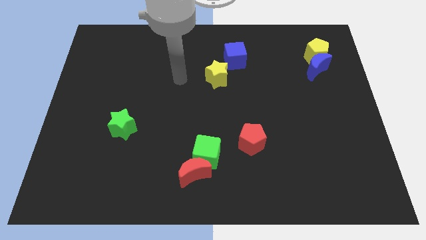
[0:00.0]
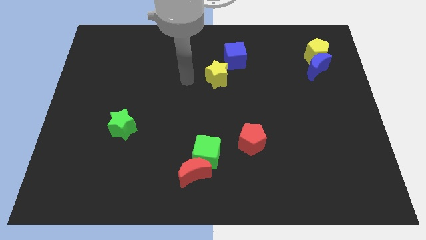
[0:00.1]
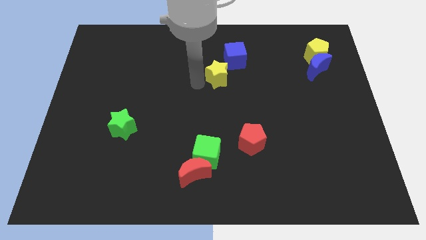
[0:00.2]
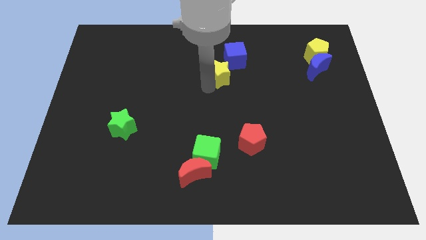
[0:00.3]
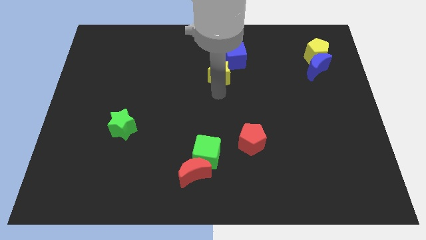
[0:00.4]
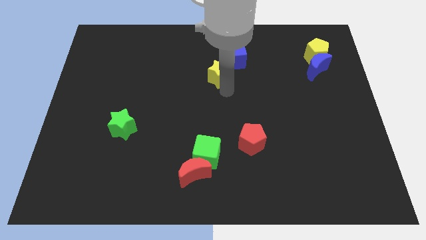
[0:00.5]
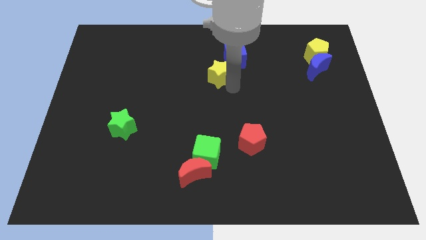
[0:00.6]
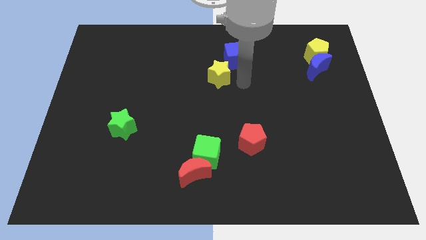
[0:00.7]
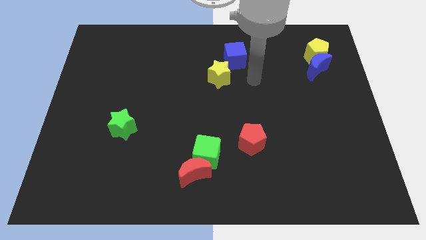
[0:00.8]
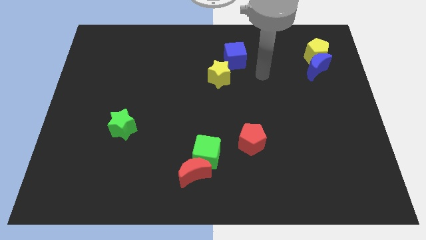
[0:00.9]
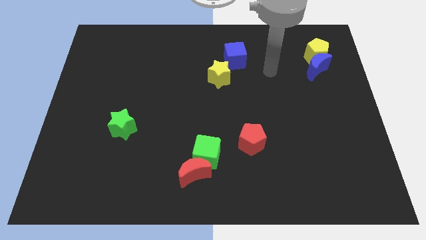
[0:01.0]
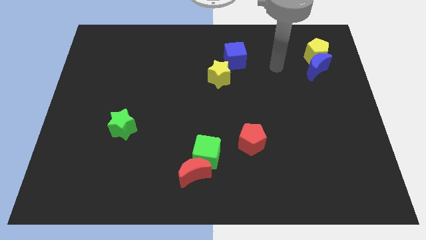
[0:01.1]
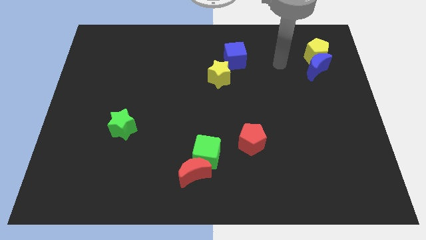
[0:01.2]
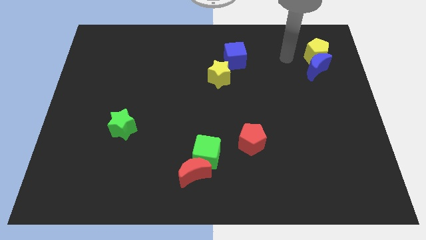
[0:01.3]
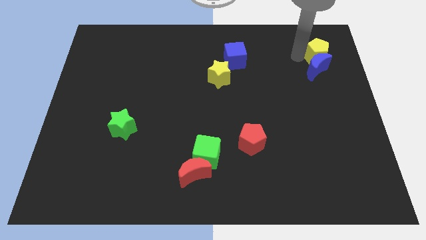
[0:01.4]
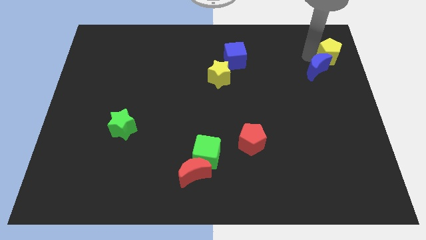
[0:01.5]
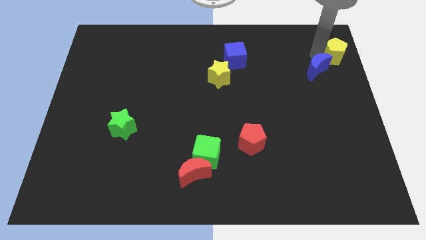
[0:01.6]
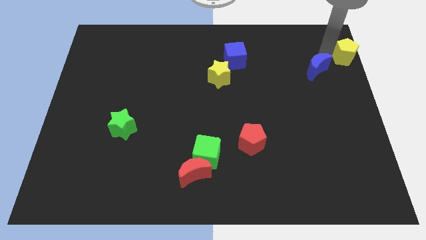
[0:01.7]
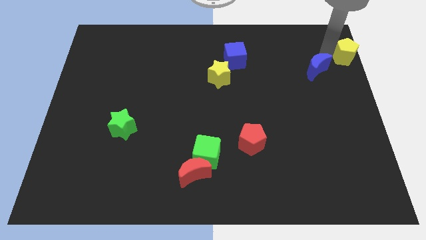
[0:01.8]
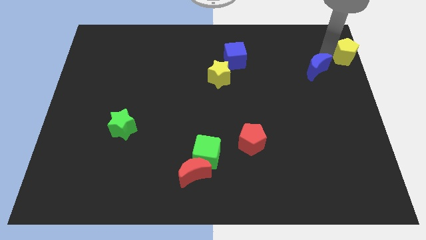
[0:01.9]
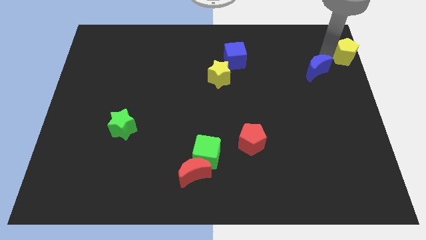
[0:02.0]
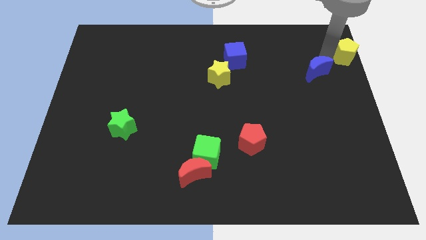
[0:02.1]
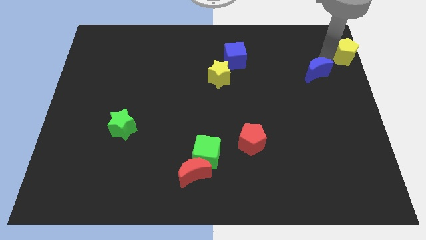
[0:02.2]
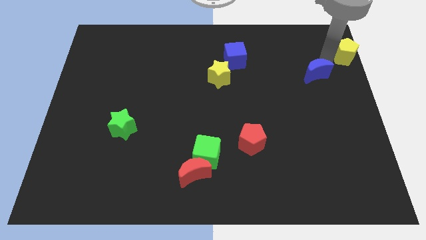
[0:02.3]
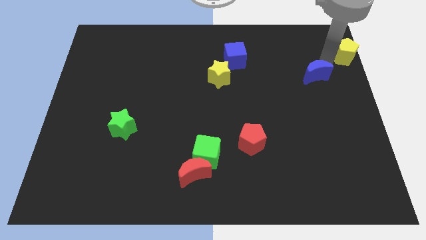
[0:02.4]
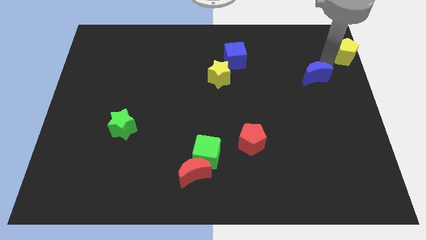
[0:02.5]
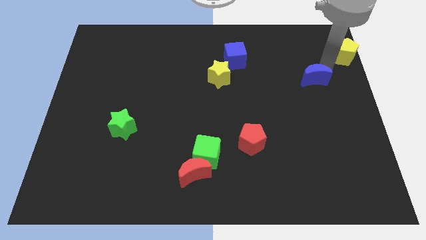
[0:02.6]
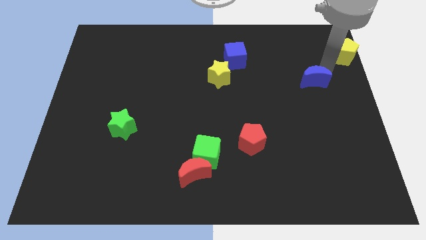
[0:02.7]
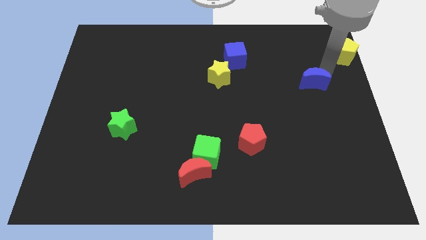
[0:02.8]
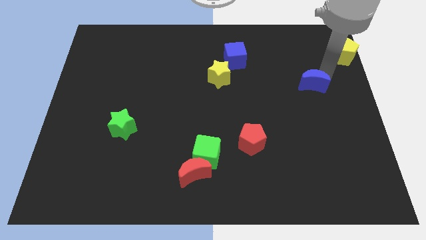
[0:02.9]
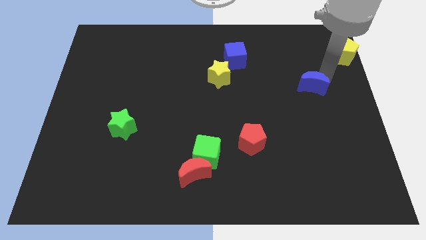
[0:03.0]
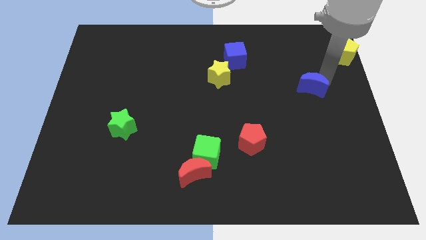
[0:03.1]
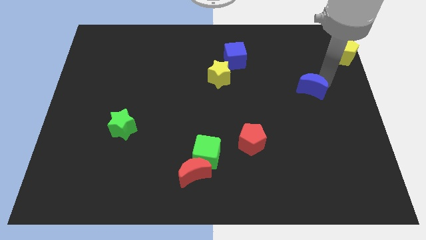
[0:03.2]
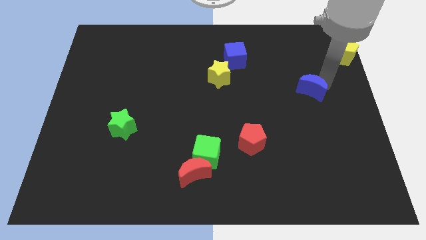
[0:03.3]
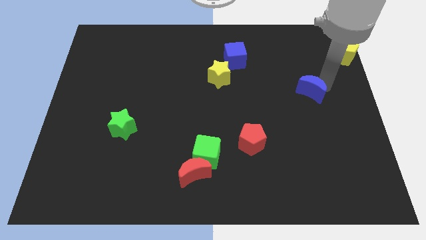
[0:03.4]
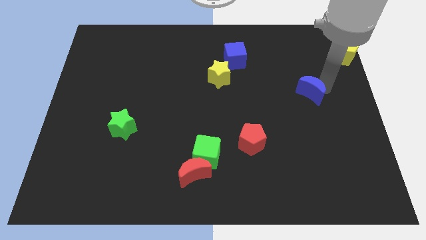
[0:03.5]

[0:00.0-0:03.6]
push the blue moon down and to the left somewhat

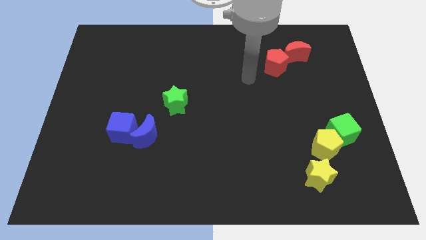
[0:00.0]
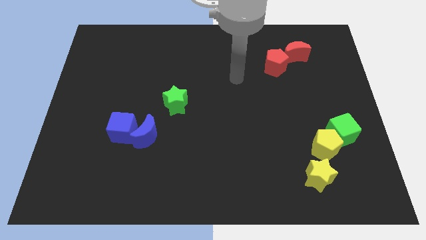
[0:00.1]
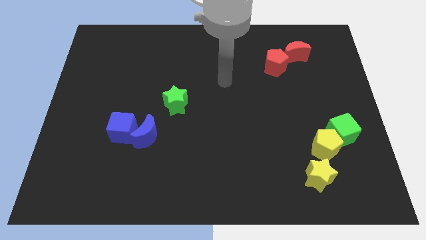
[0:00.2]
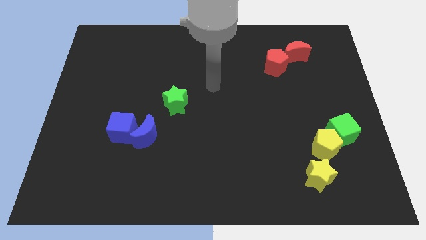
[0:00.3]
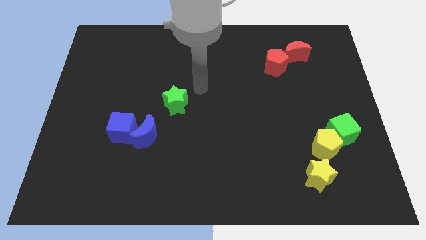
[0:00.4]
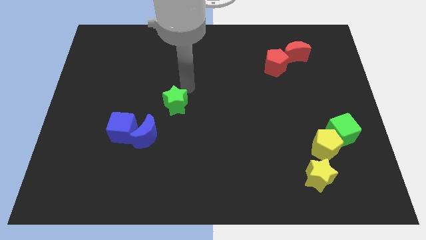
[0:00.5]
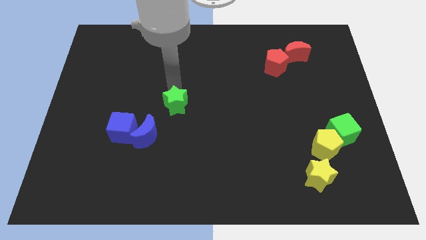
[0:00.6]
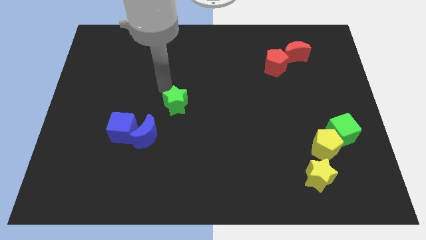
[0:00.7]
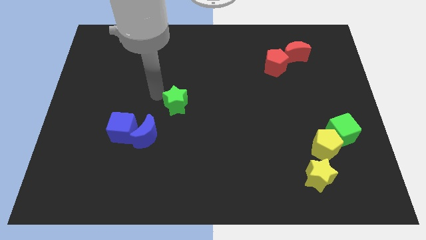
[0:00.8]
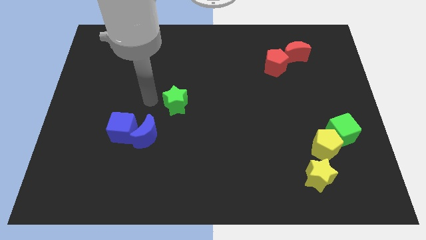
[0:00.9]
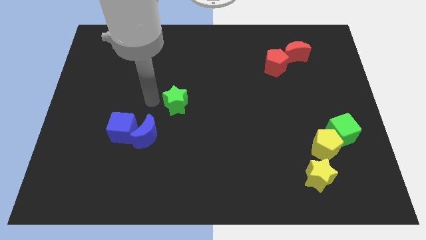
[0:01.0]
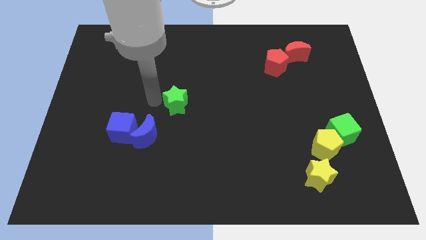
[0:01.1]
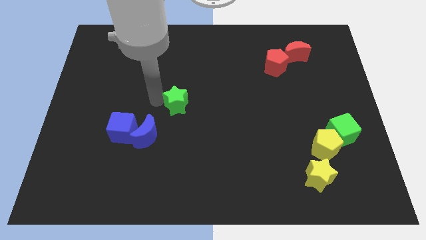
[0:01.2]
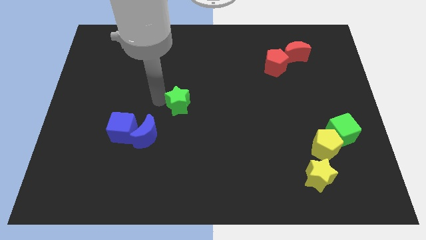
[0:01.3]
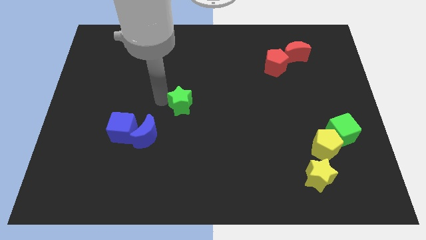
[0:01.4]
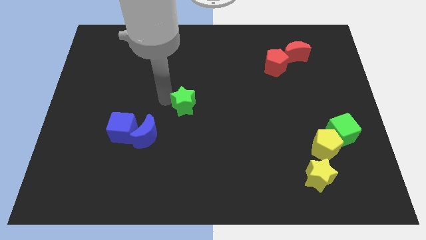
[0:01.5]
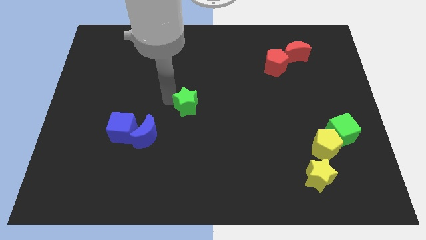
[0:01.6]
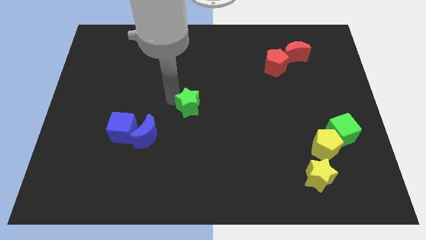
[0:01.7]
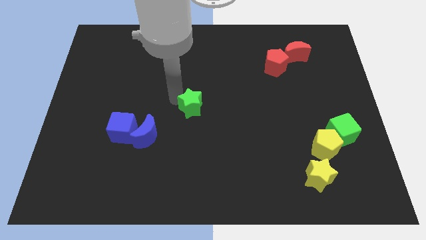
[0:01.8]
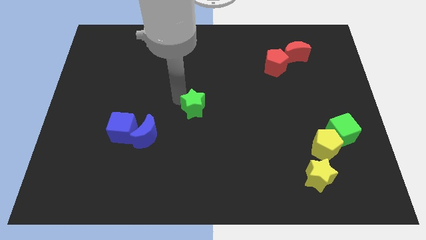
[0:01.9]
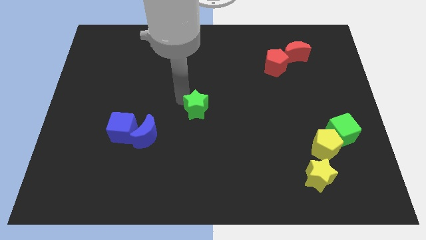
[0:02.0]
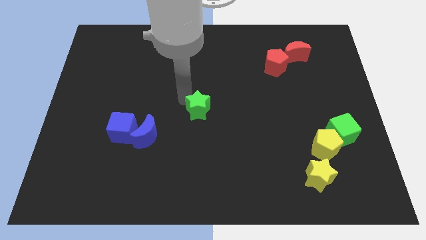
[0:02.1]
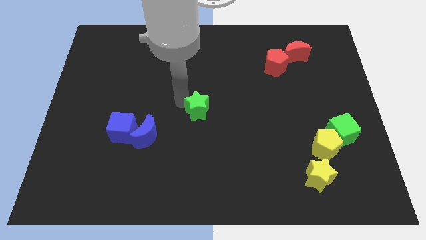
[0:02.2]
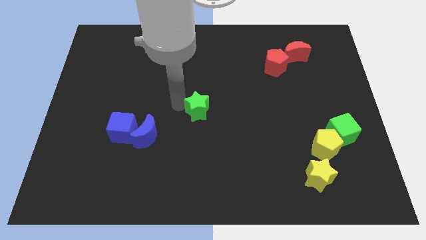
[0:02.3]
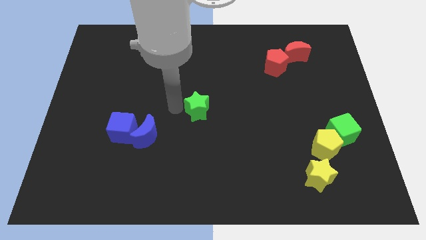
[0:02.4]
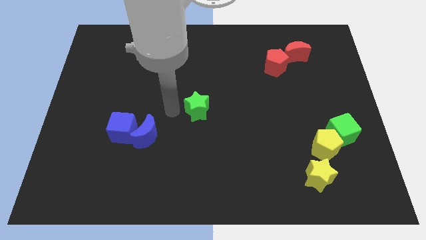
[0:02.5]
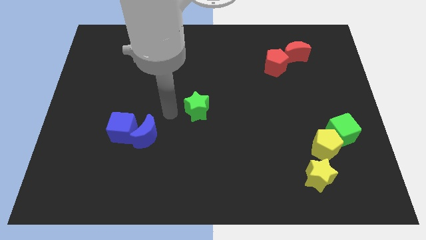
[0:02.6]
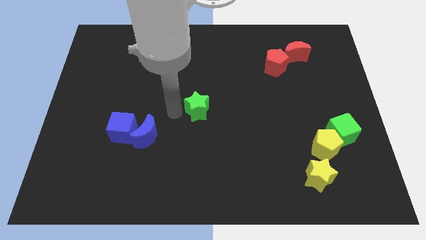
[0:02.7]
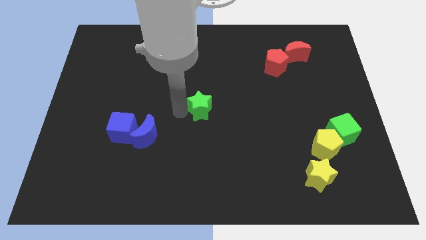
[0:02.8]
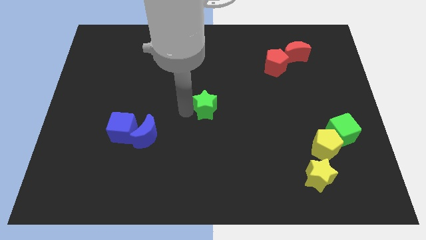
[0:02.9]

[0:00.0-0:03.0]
move the green star to the right slightly

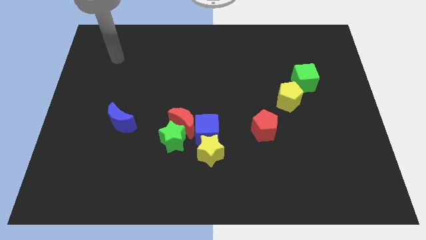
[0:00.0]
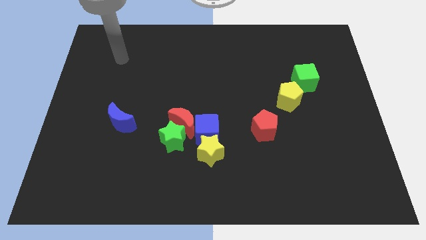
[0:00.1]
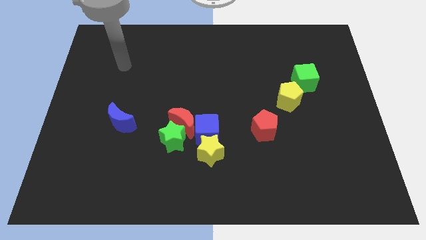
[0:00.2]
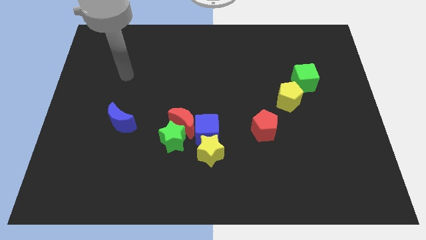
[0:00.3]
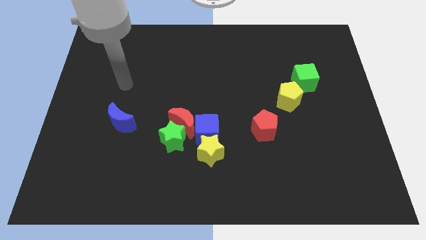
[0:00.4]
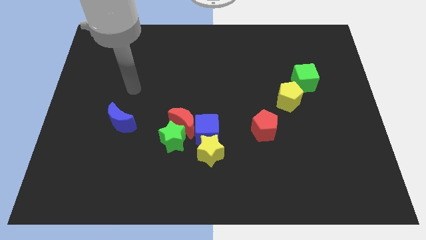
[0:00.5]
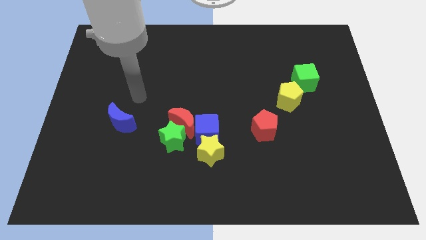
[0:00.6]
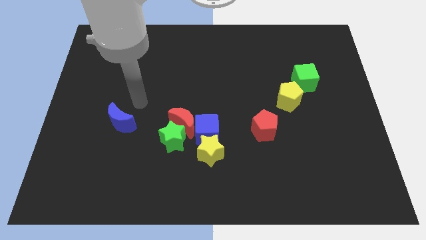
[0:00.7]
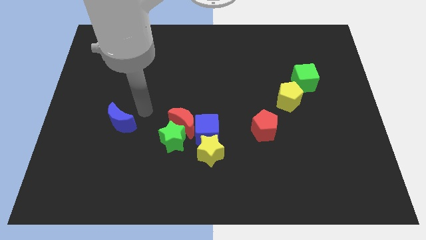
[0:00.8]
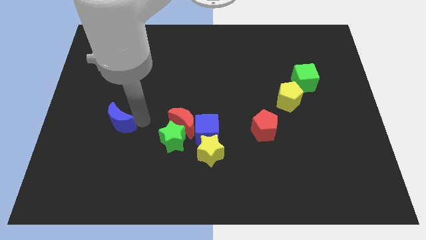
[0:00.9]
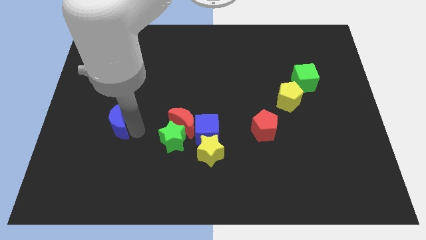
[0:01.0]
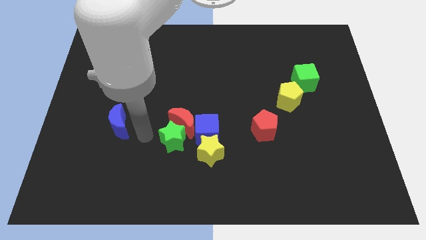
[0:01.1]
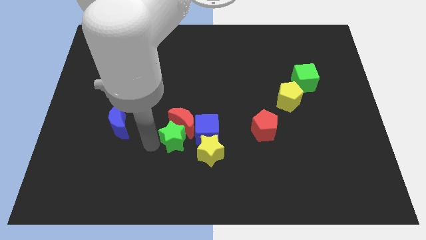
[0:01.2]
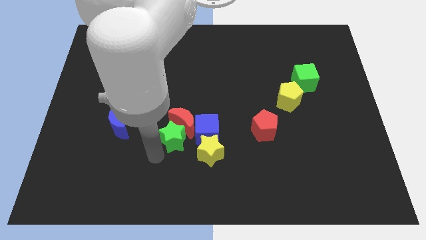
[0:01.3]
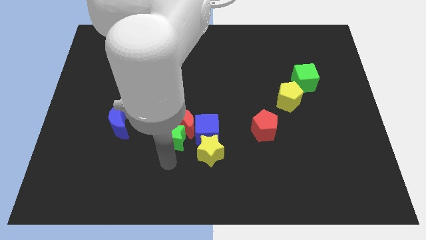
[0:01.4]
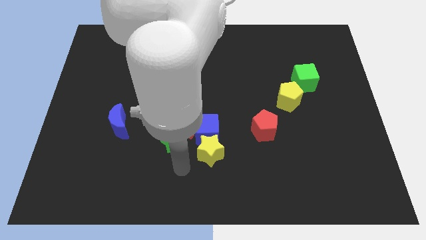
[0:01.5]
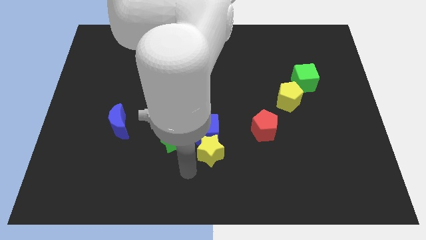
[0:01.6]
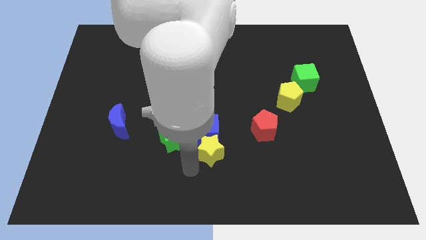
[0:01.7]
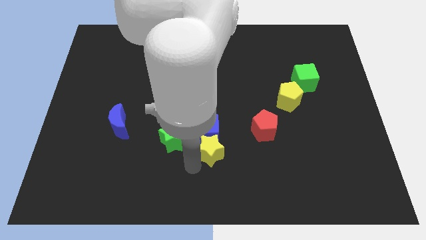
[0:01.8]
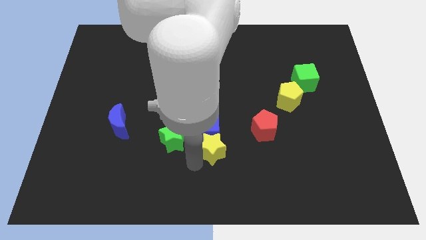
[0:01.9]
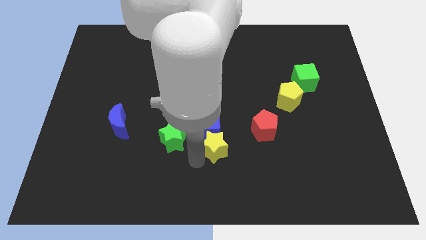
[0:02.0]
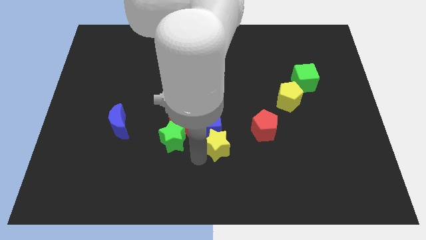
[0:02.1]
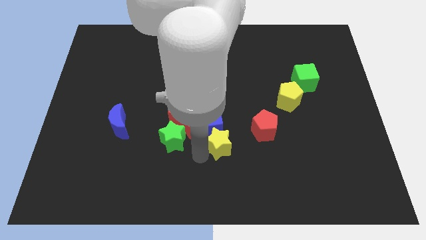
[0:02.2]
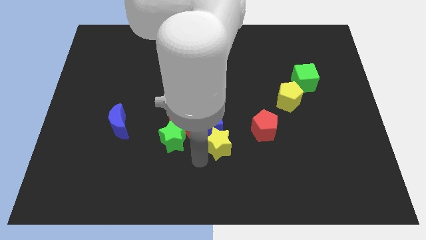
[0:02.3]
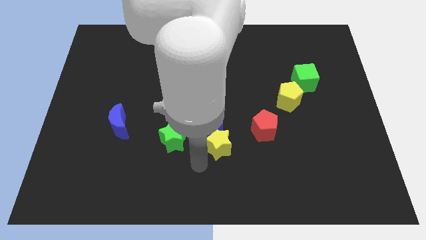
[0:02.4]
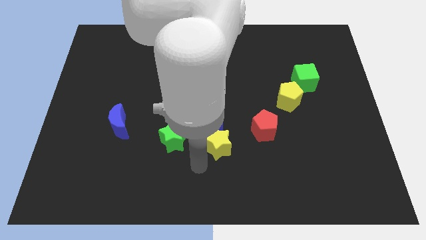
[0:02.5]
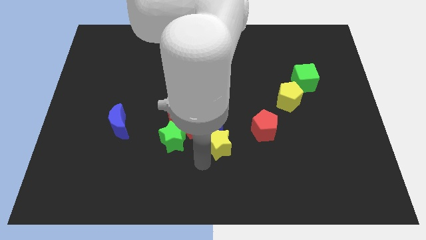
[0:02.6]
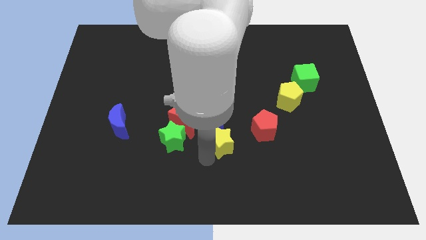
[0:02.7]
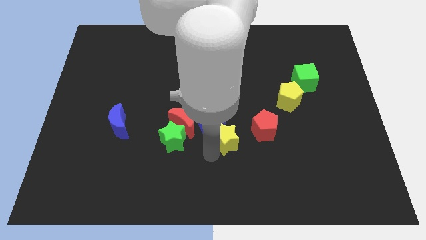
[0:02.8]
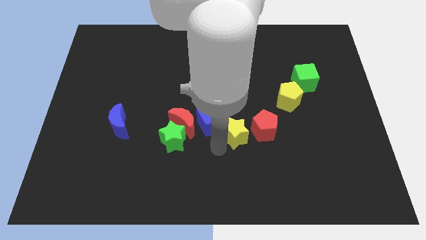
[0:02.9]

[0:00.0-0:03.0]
move the yellow star a bit upwards and right diagonally
